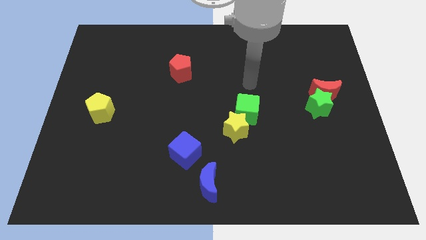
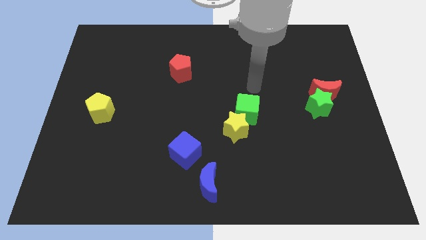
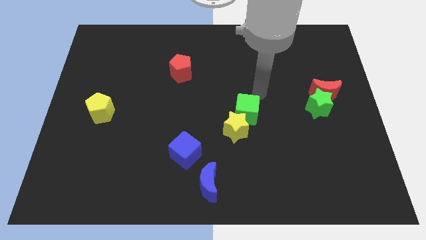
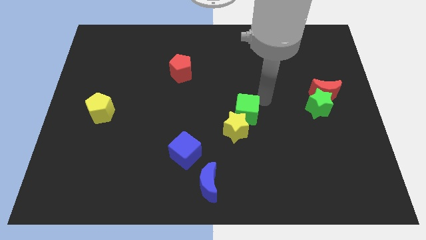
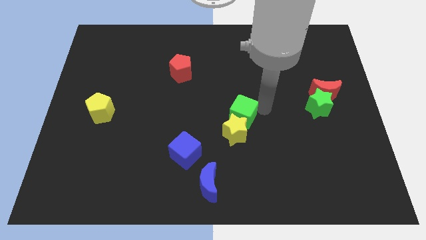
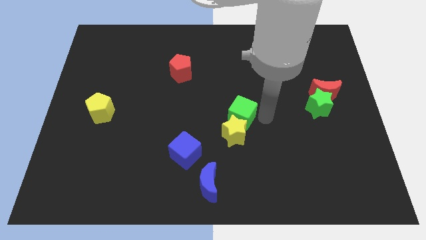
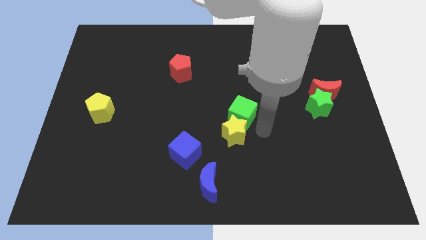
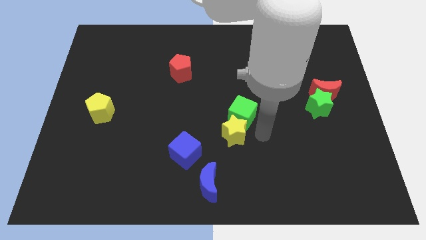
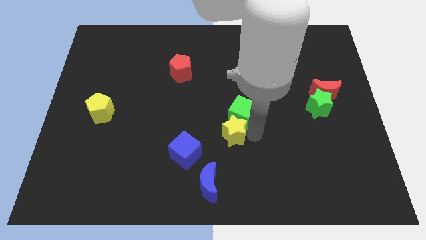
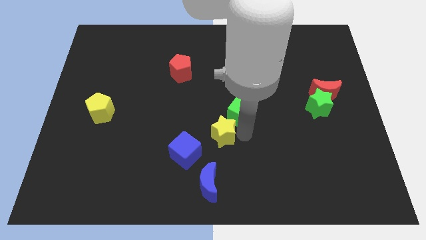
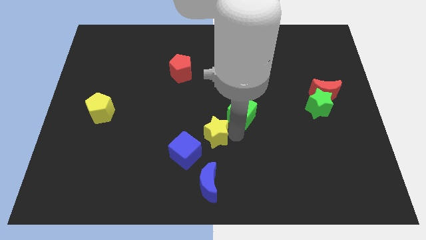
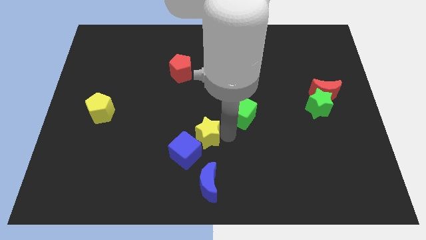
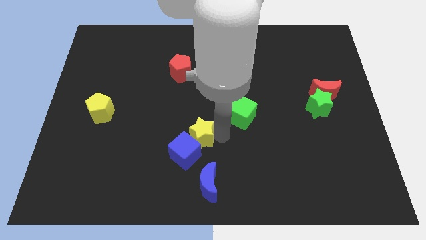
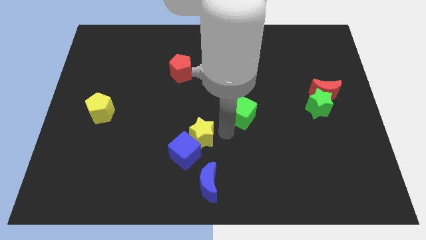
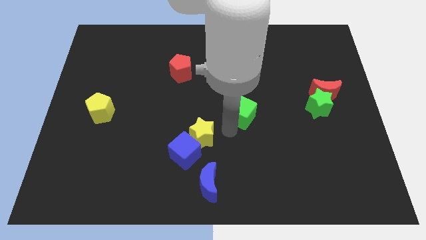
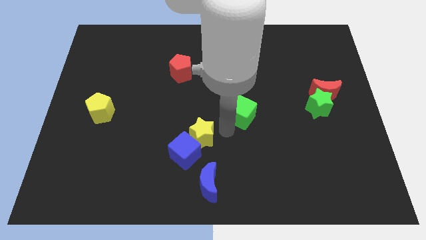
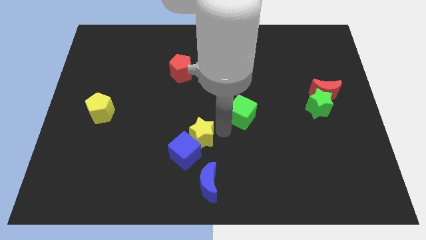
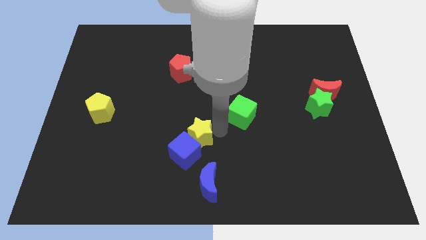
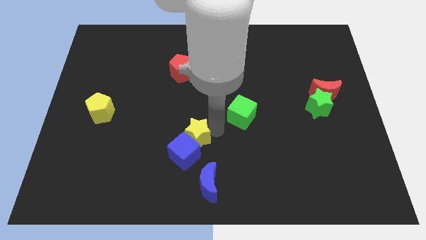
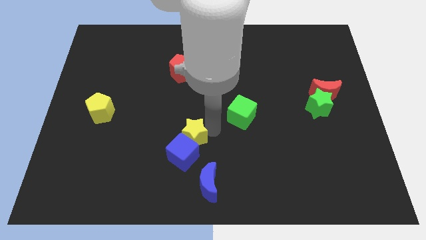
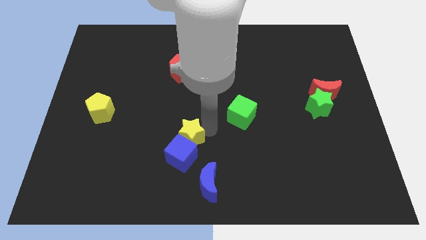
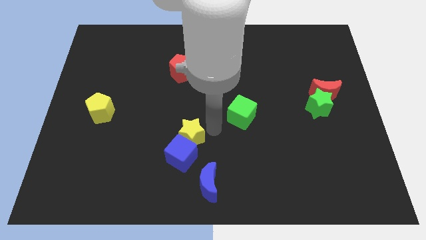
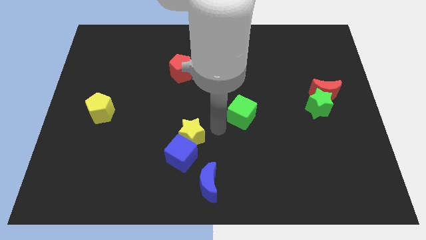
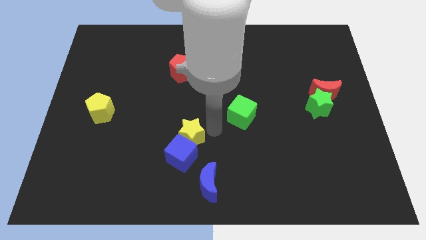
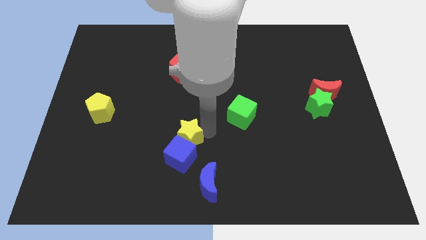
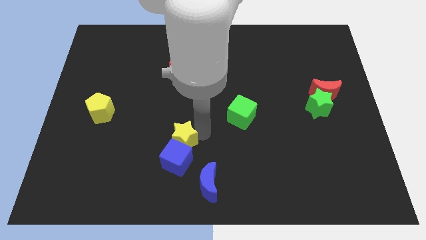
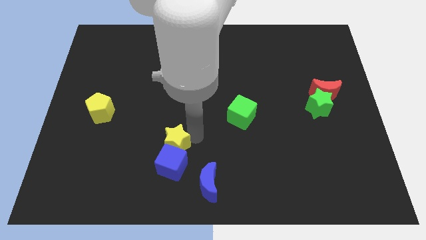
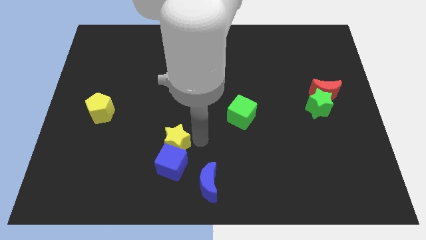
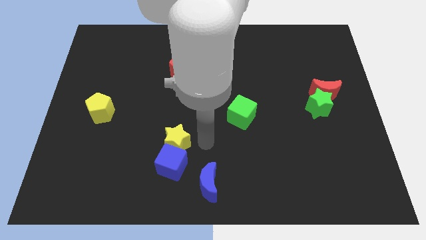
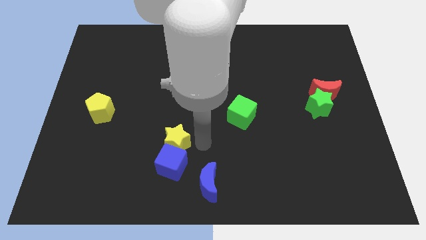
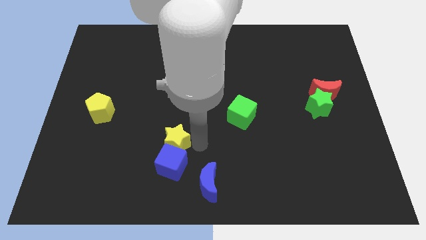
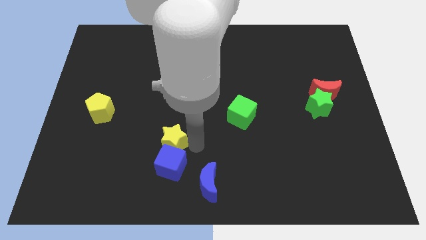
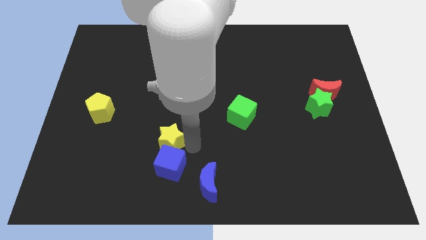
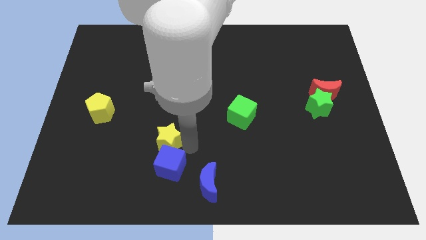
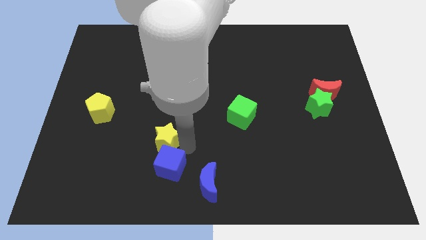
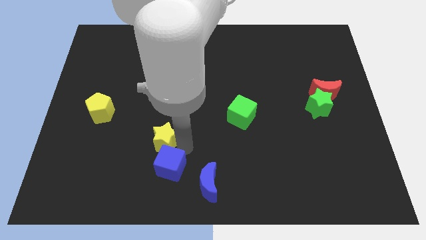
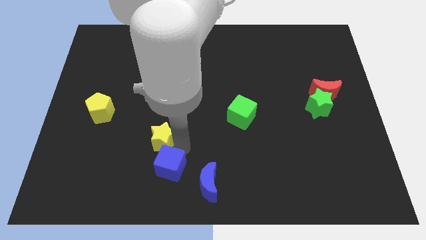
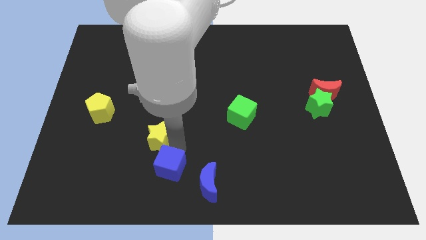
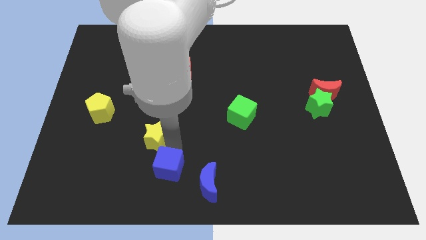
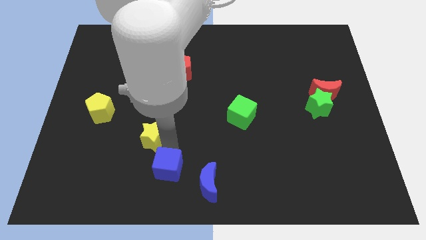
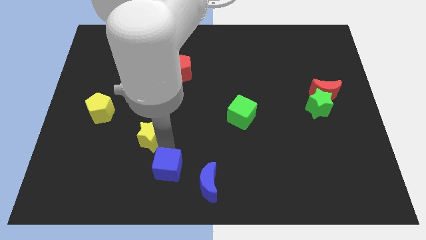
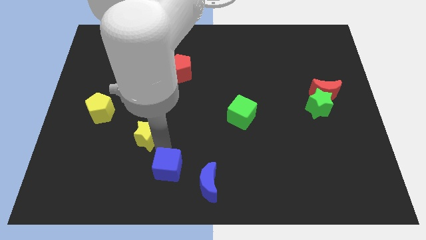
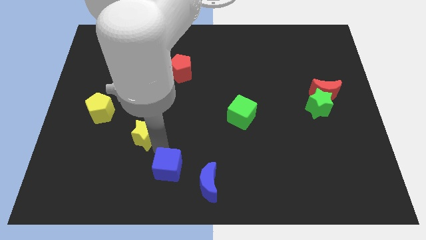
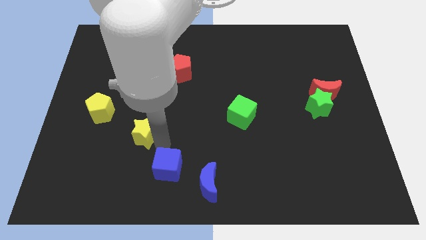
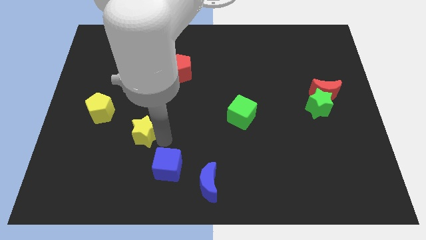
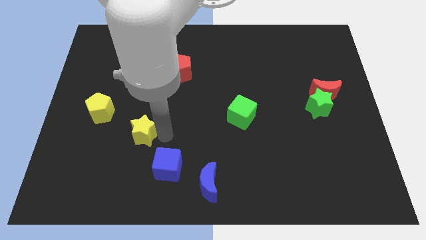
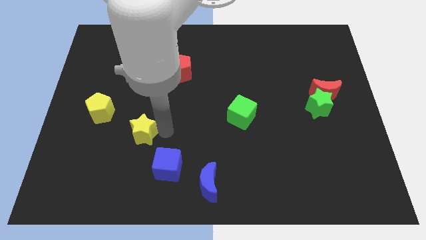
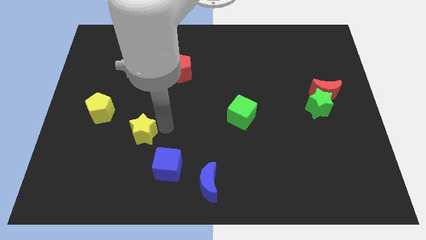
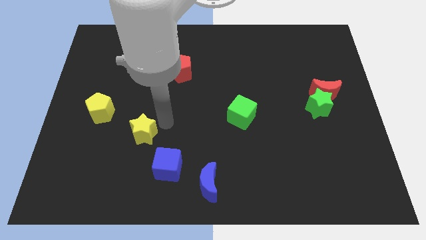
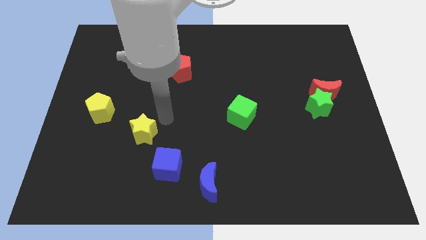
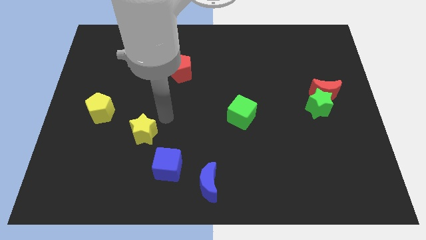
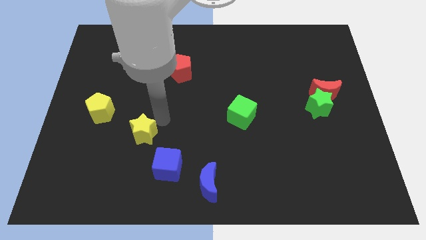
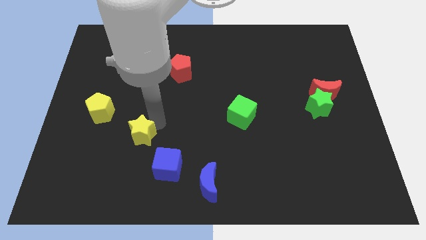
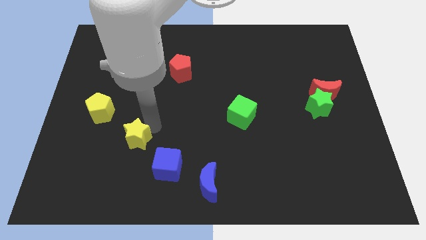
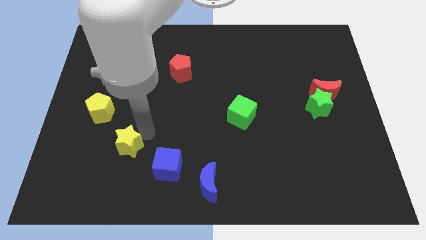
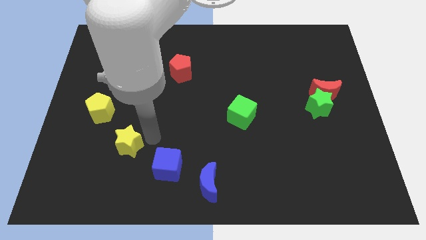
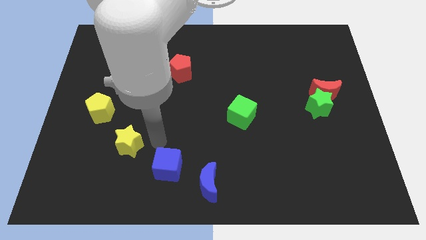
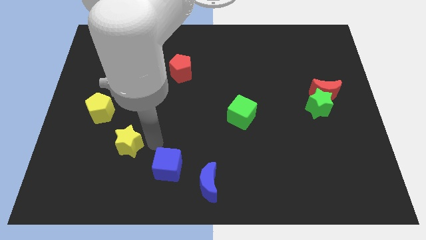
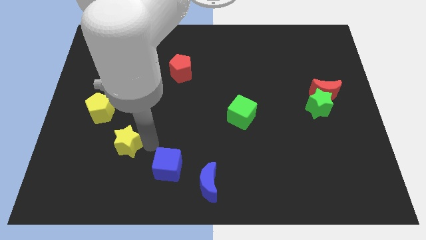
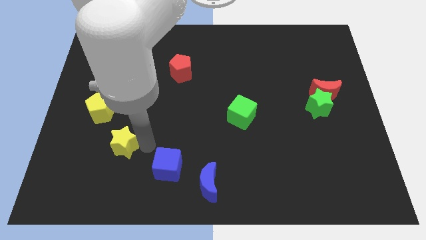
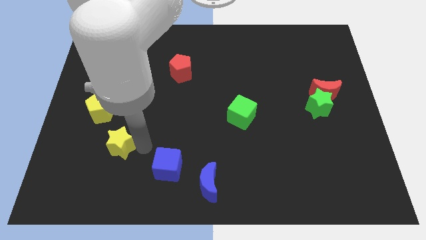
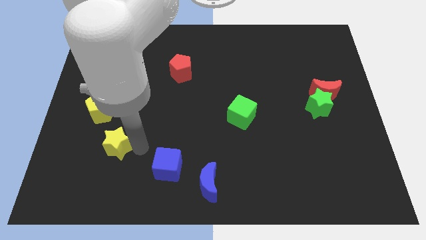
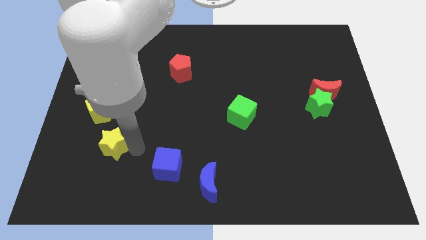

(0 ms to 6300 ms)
push the yellow star to the bottom side of the yellow pentagon

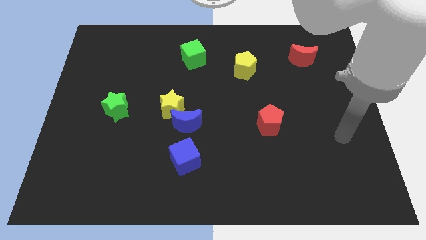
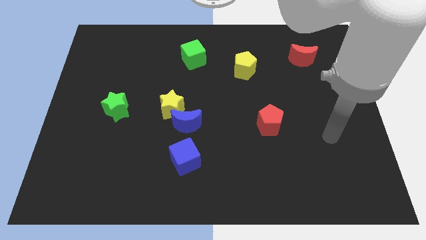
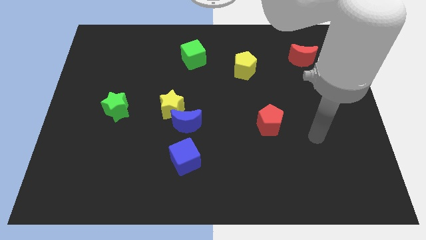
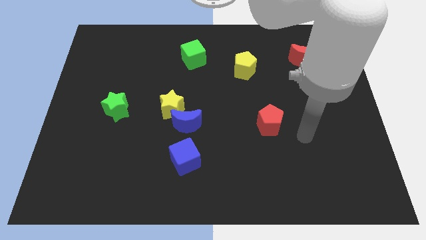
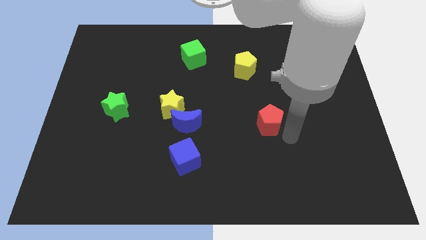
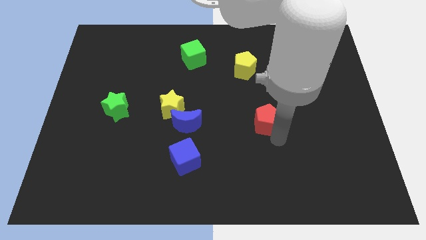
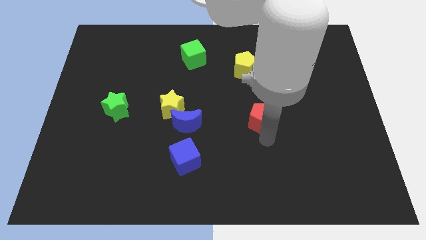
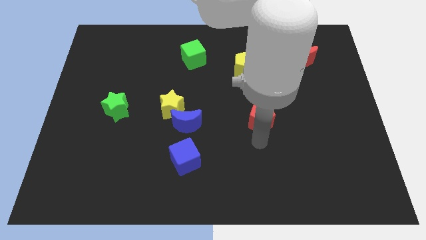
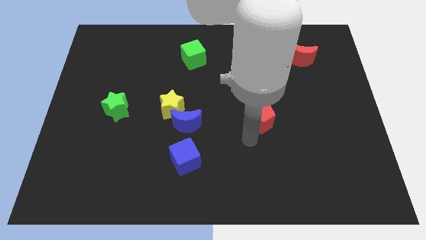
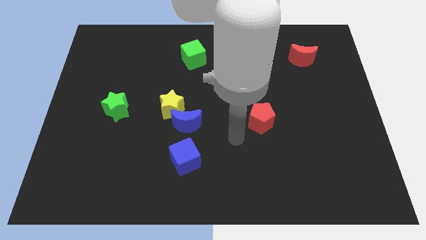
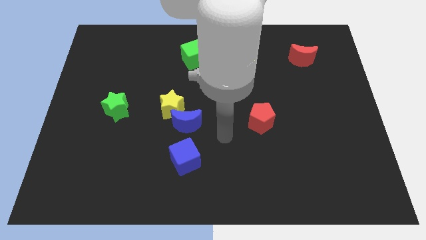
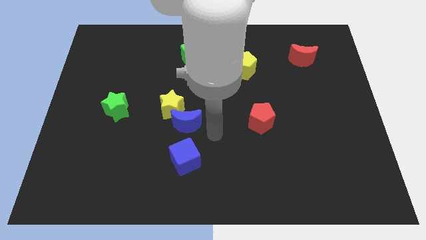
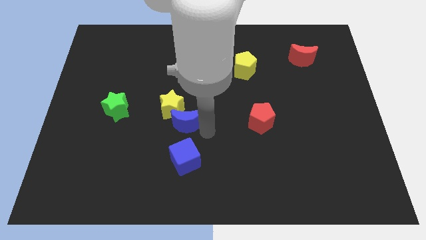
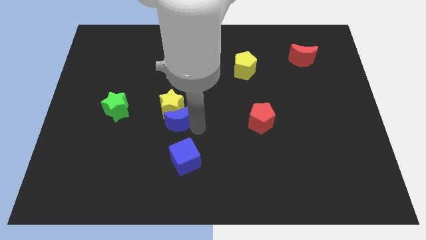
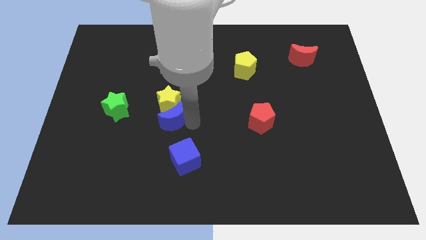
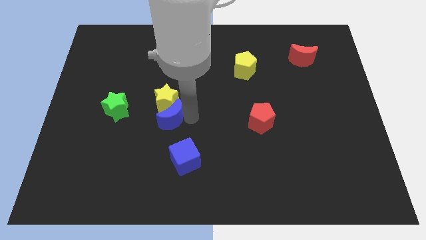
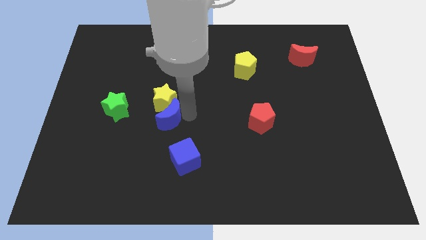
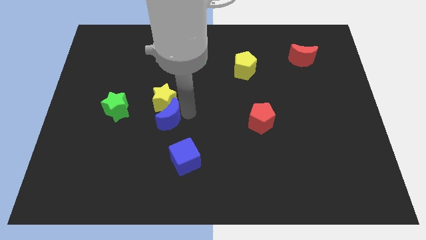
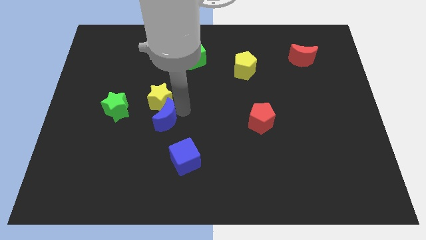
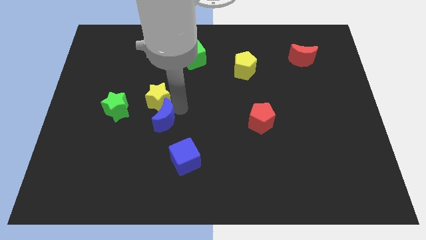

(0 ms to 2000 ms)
push the yellow star to the top right side of the green star
